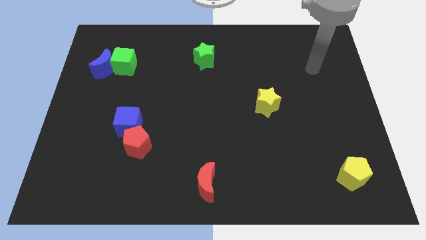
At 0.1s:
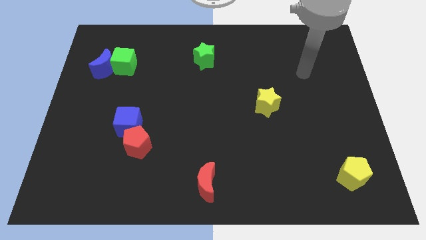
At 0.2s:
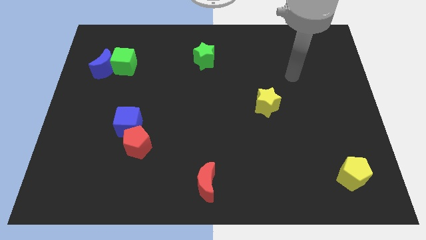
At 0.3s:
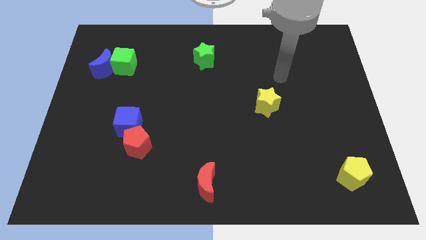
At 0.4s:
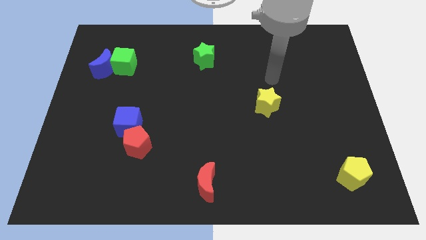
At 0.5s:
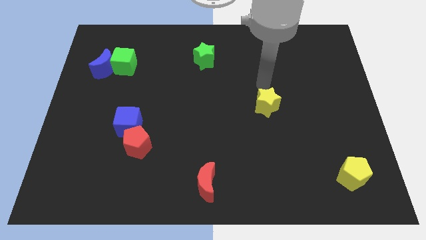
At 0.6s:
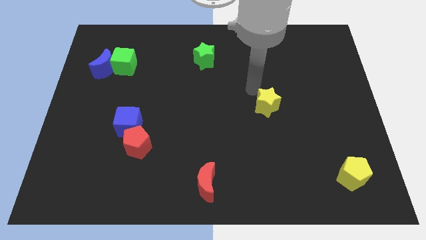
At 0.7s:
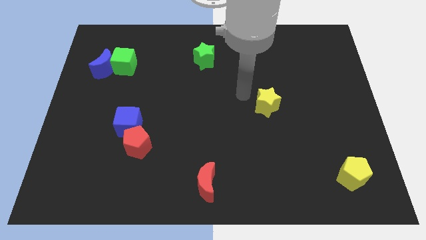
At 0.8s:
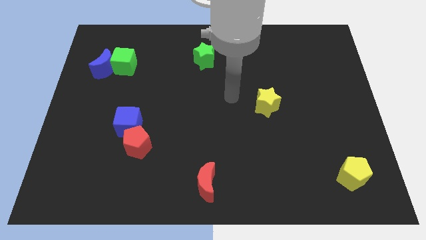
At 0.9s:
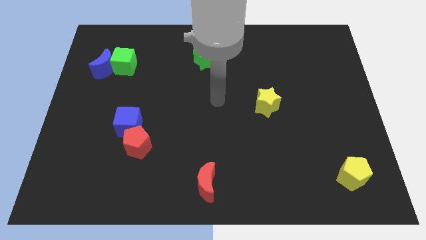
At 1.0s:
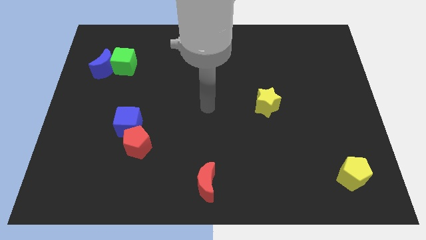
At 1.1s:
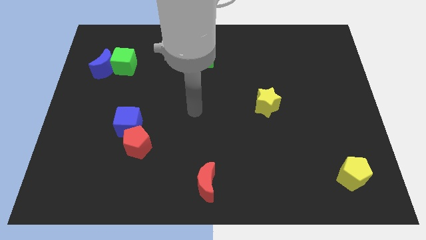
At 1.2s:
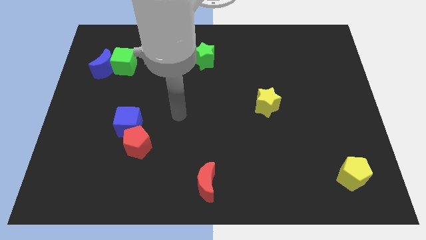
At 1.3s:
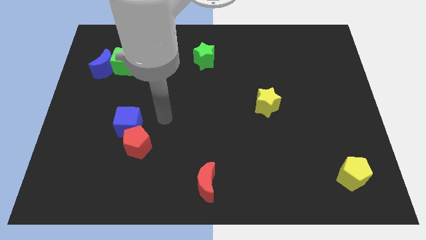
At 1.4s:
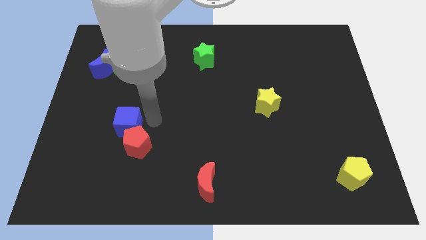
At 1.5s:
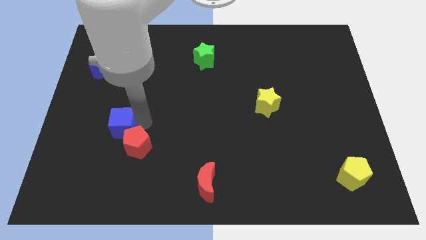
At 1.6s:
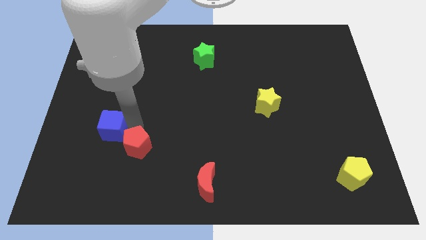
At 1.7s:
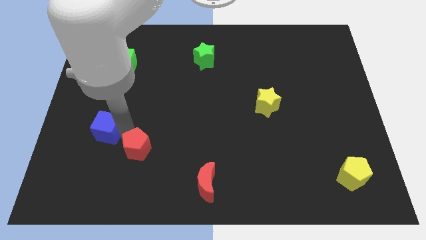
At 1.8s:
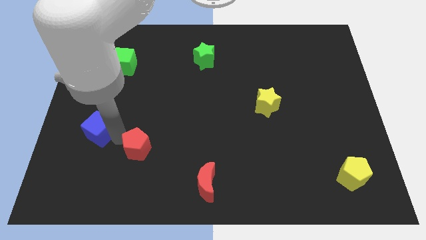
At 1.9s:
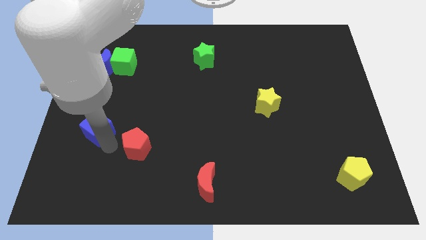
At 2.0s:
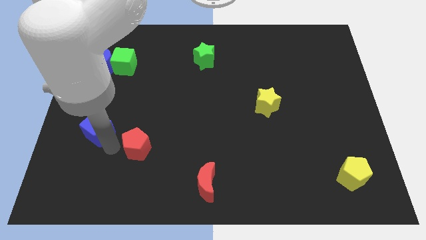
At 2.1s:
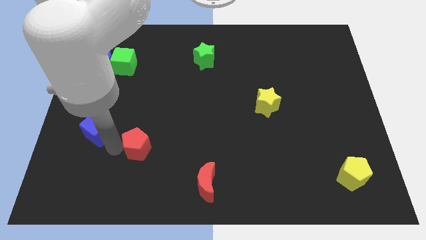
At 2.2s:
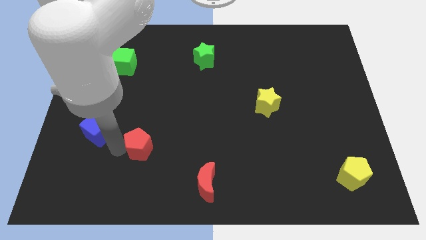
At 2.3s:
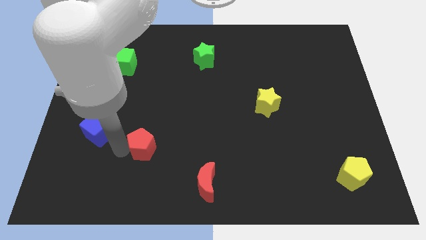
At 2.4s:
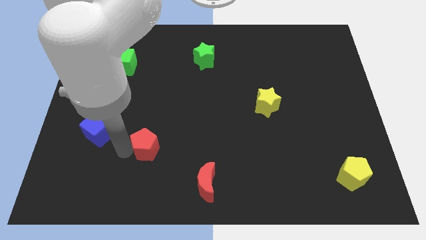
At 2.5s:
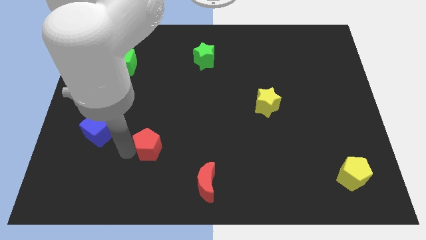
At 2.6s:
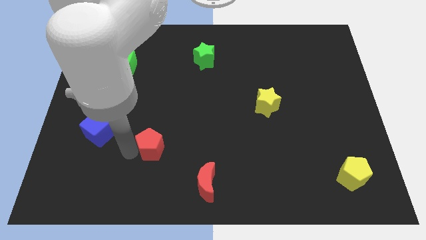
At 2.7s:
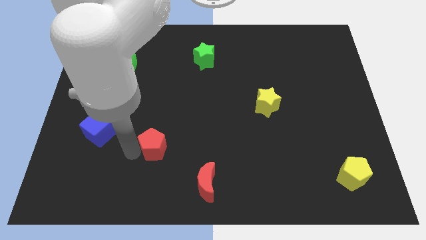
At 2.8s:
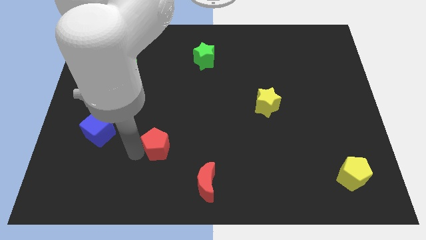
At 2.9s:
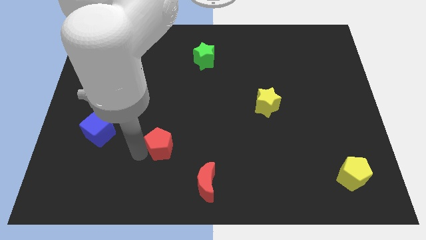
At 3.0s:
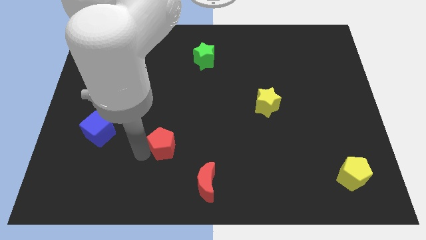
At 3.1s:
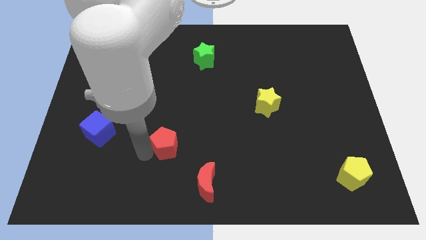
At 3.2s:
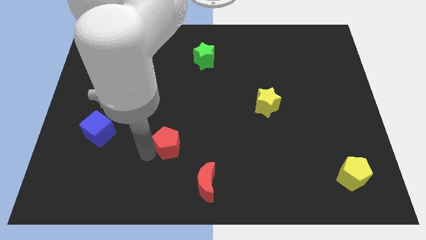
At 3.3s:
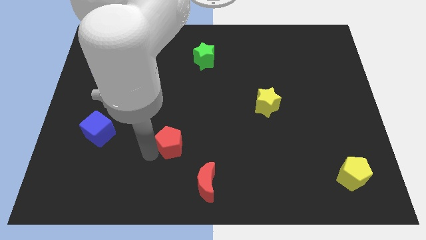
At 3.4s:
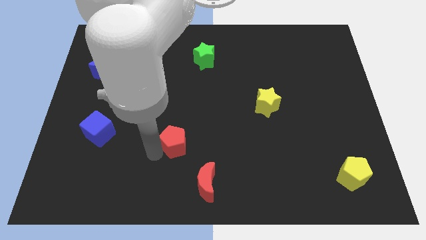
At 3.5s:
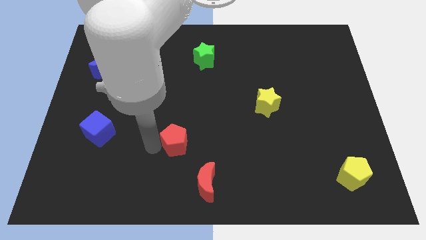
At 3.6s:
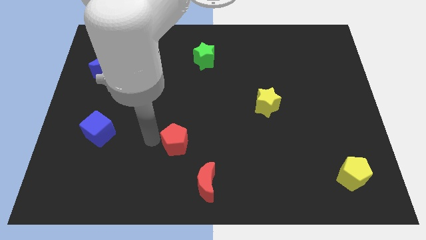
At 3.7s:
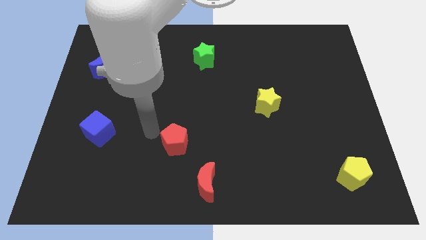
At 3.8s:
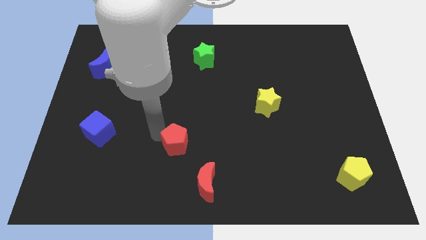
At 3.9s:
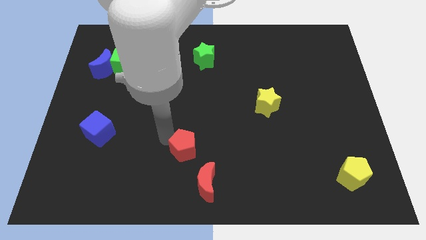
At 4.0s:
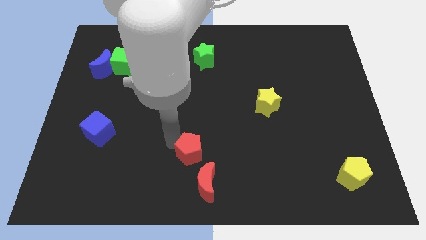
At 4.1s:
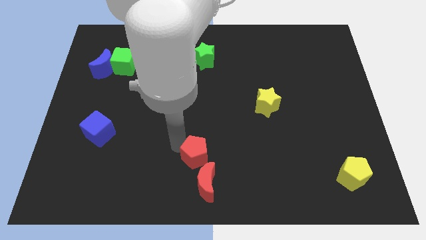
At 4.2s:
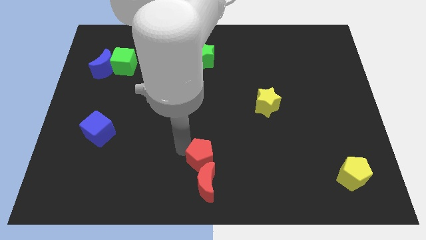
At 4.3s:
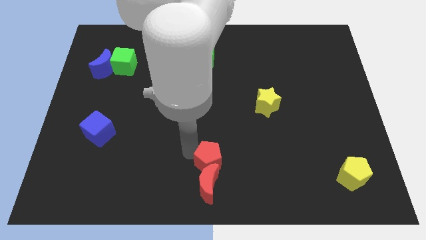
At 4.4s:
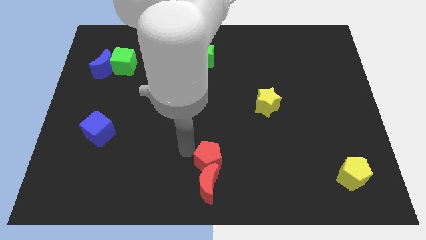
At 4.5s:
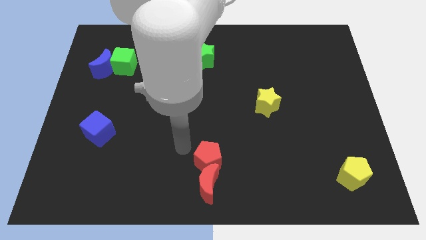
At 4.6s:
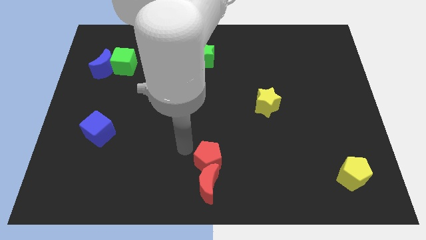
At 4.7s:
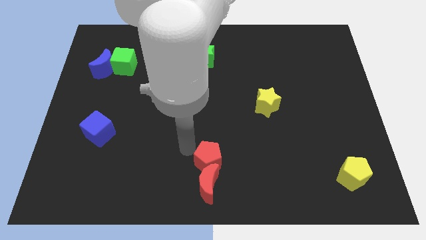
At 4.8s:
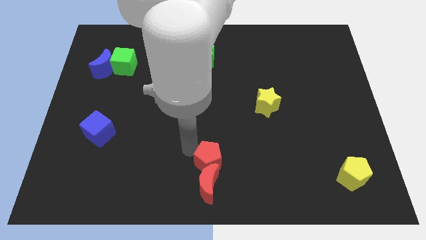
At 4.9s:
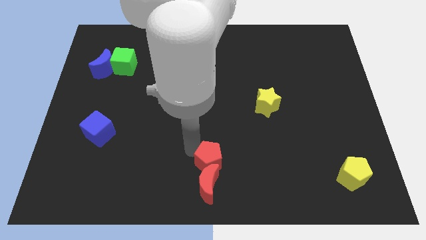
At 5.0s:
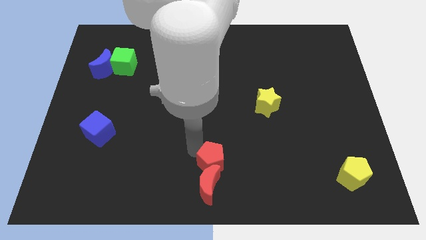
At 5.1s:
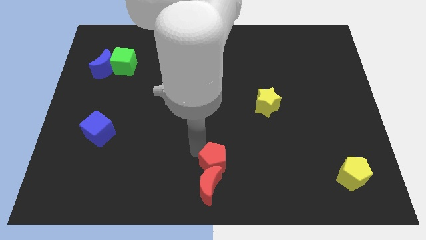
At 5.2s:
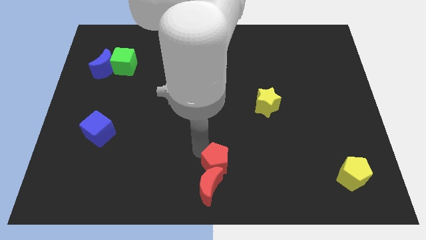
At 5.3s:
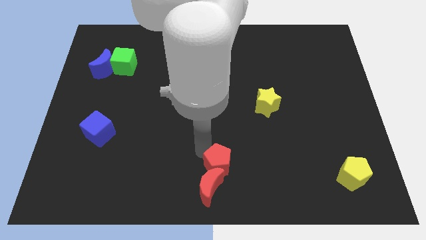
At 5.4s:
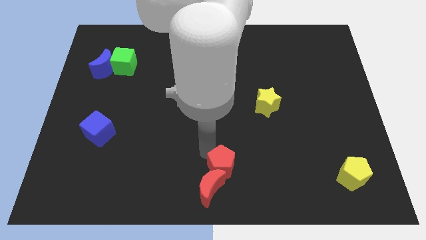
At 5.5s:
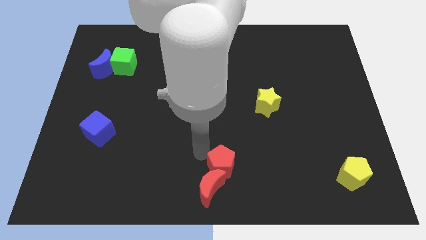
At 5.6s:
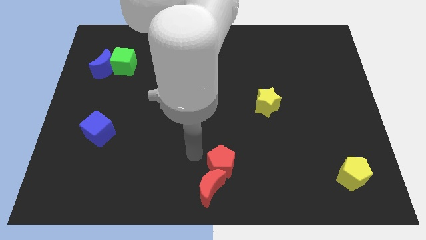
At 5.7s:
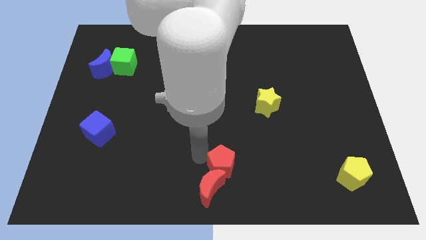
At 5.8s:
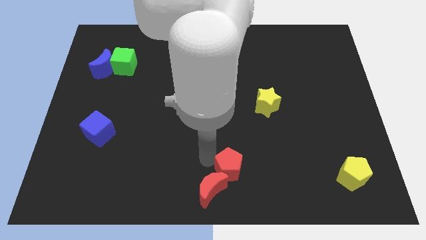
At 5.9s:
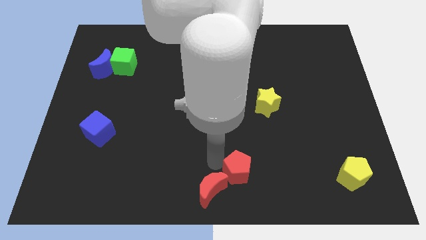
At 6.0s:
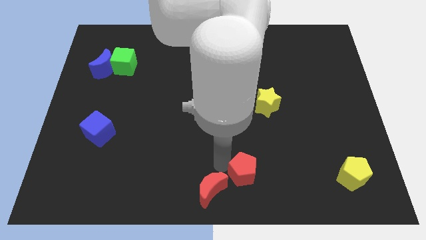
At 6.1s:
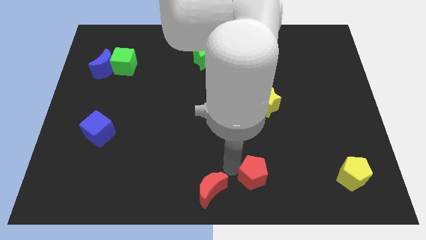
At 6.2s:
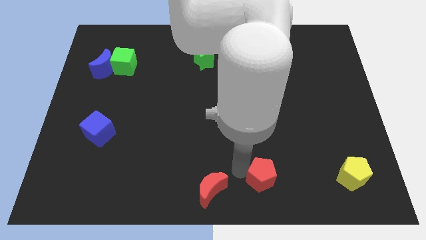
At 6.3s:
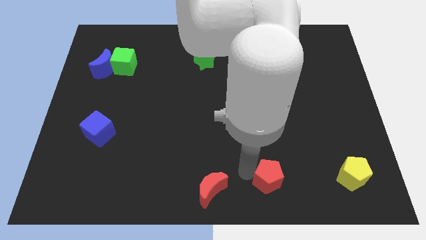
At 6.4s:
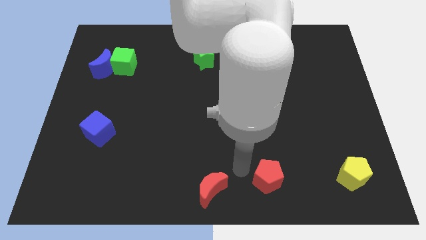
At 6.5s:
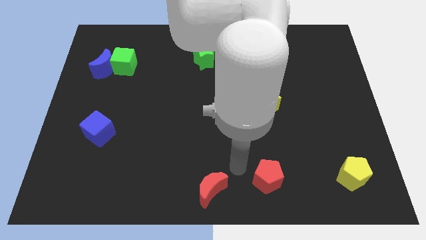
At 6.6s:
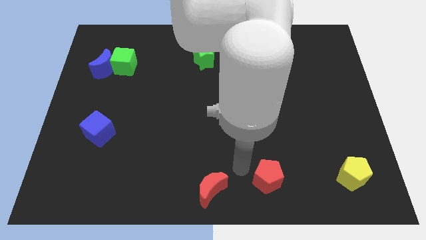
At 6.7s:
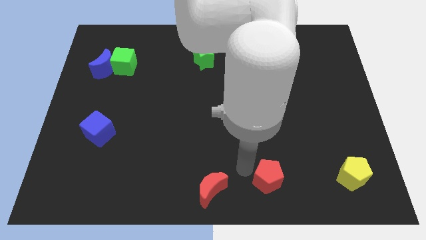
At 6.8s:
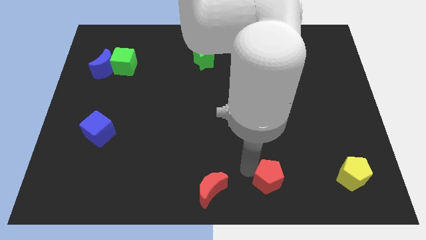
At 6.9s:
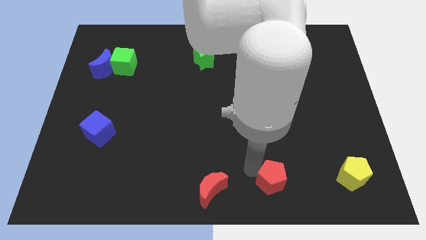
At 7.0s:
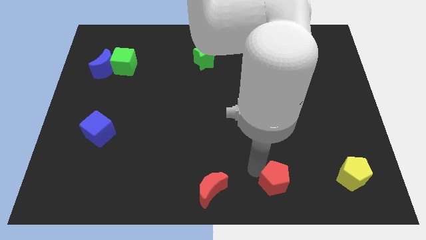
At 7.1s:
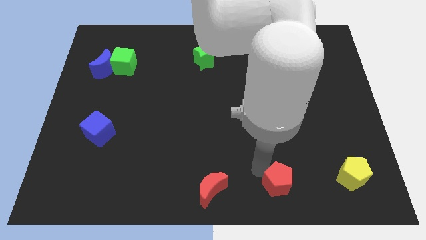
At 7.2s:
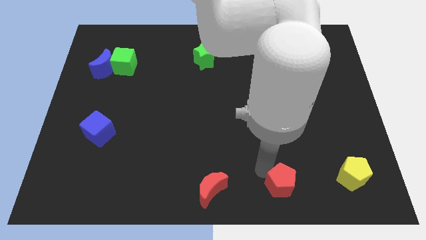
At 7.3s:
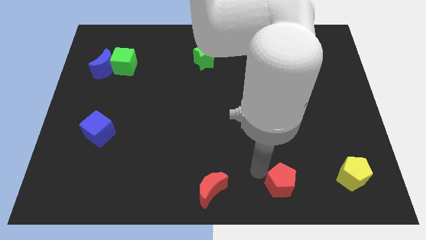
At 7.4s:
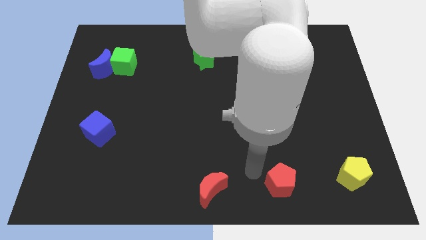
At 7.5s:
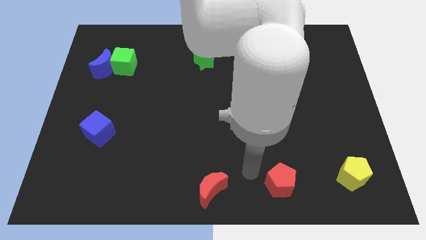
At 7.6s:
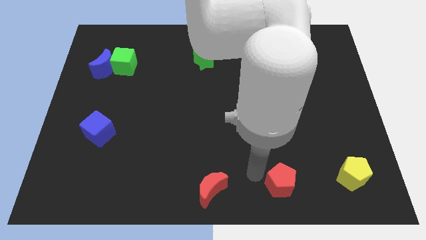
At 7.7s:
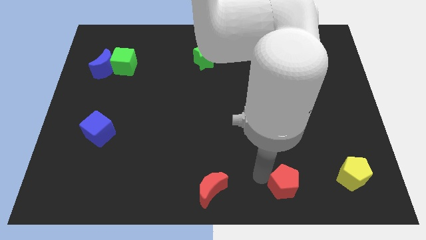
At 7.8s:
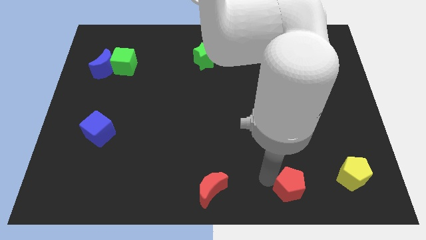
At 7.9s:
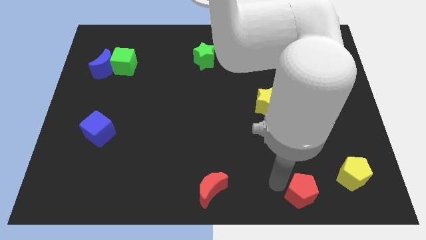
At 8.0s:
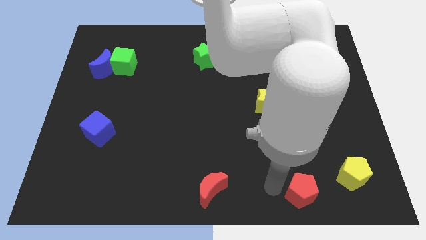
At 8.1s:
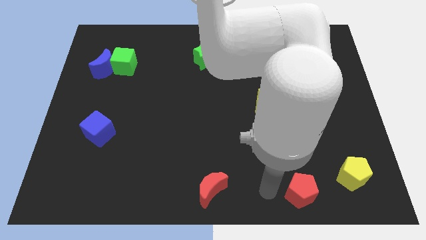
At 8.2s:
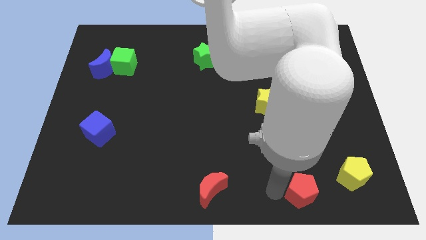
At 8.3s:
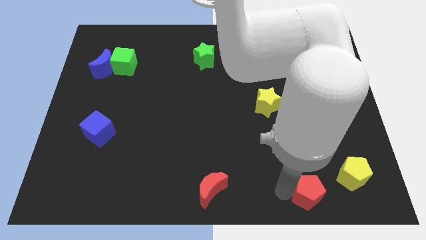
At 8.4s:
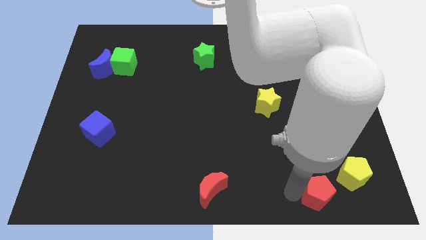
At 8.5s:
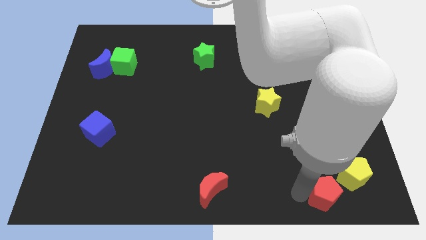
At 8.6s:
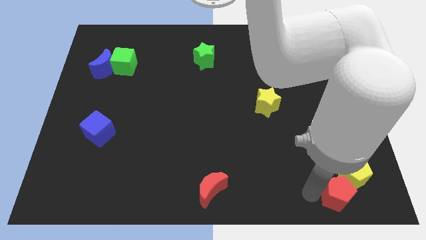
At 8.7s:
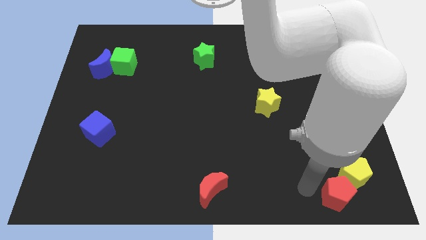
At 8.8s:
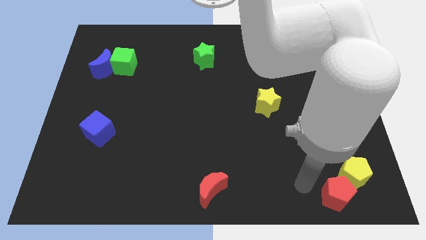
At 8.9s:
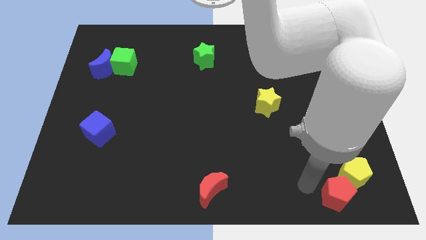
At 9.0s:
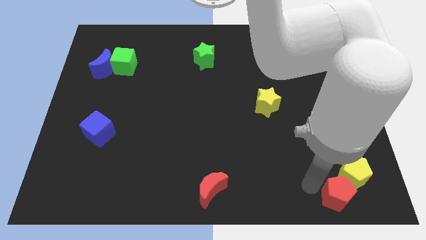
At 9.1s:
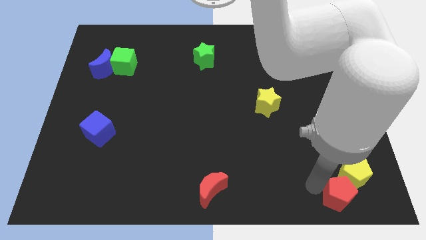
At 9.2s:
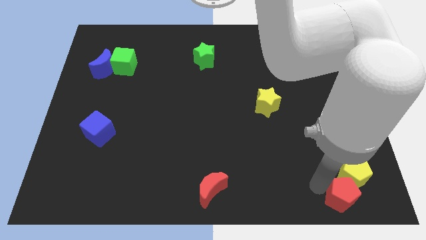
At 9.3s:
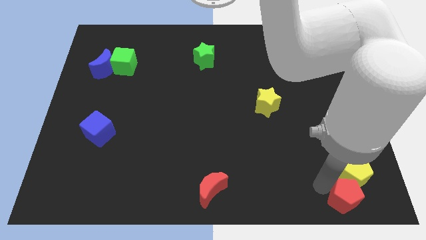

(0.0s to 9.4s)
slide the red pentagon to the bottom right
